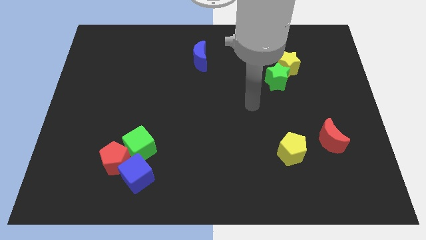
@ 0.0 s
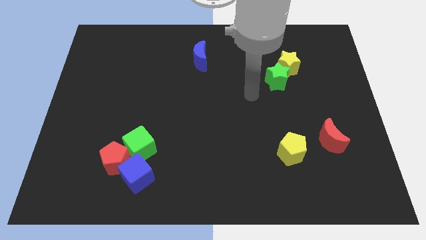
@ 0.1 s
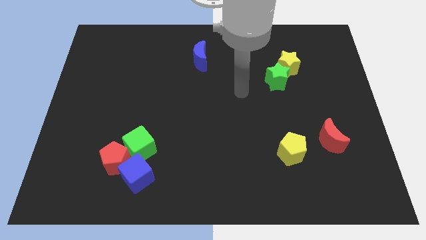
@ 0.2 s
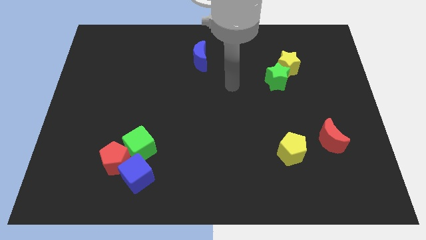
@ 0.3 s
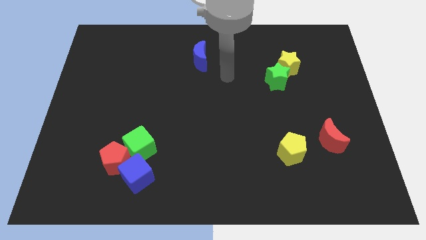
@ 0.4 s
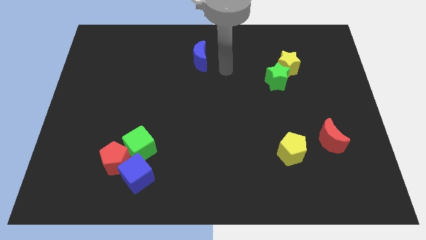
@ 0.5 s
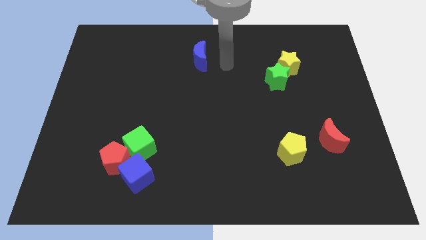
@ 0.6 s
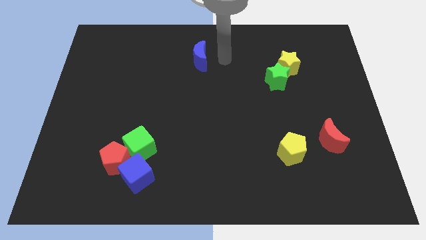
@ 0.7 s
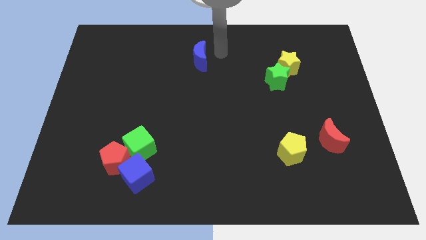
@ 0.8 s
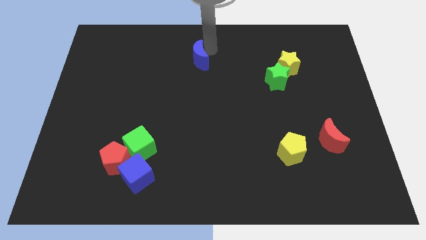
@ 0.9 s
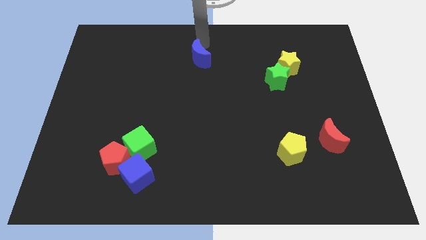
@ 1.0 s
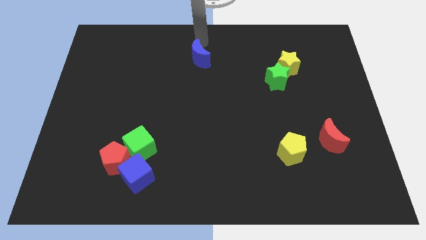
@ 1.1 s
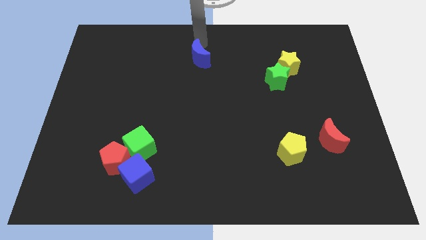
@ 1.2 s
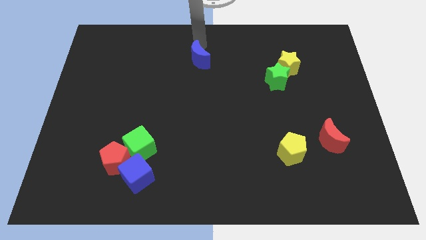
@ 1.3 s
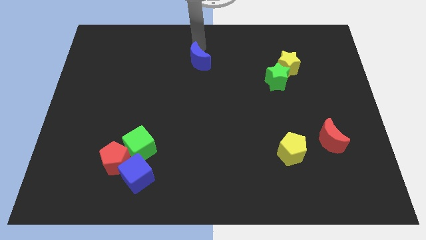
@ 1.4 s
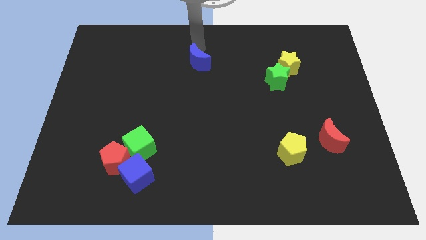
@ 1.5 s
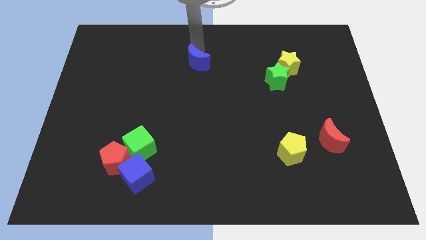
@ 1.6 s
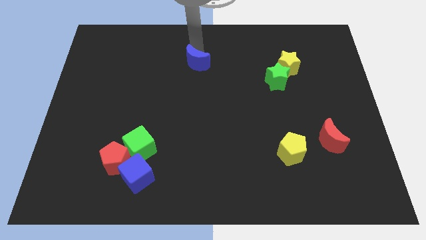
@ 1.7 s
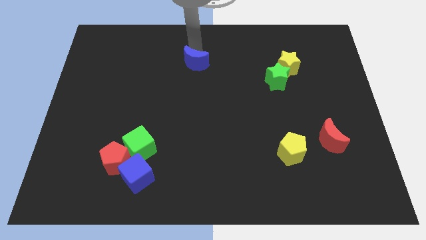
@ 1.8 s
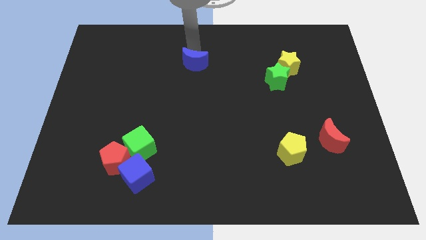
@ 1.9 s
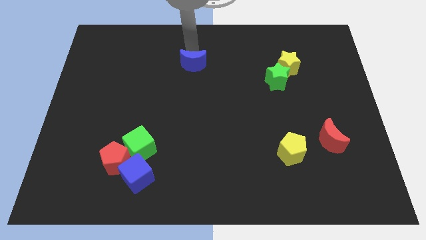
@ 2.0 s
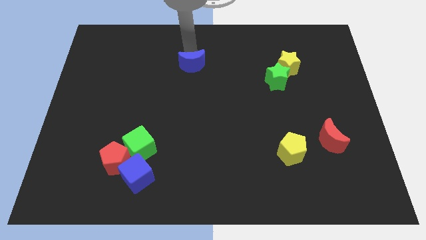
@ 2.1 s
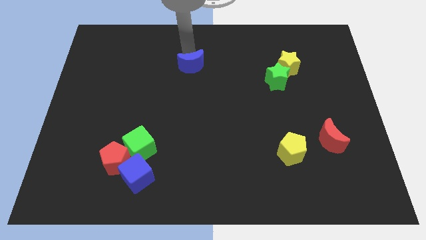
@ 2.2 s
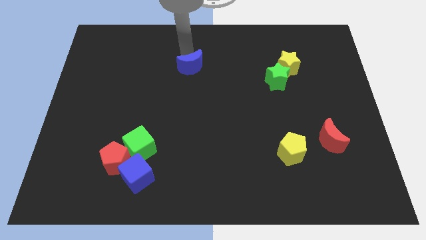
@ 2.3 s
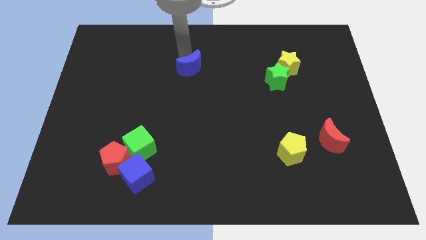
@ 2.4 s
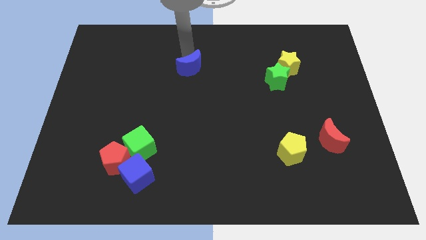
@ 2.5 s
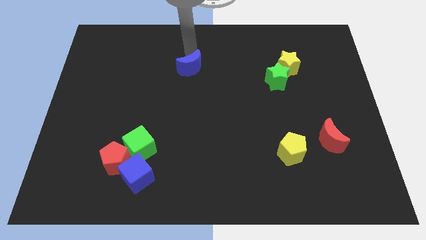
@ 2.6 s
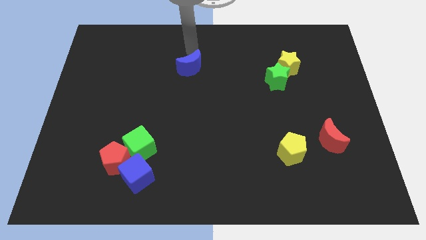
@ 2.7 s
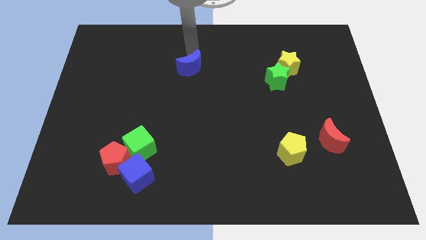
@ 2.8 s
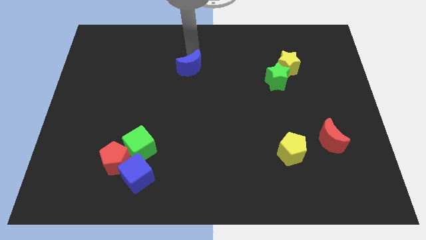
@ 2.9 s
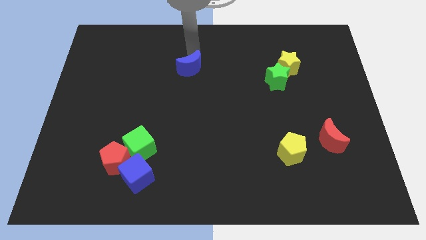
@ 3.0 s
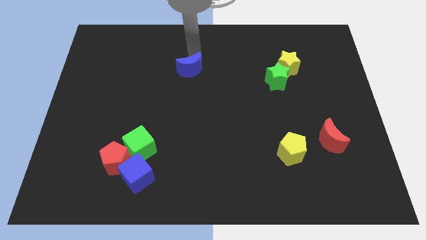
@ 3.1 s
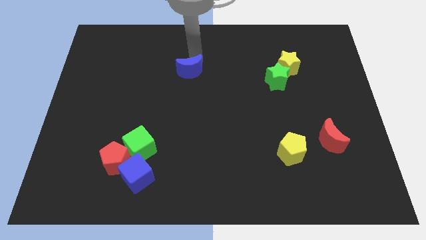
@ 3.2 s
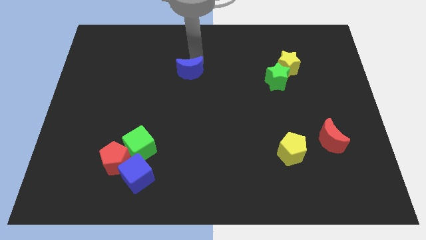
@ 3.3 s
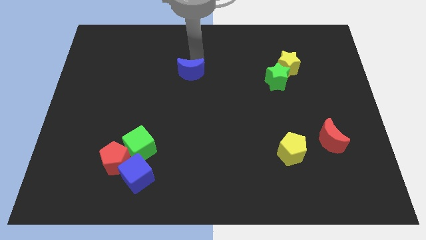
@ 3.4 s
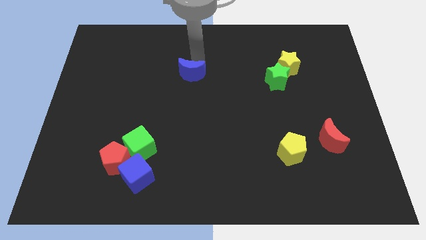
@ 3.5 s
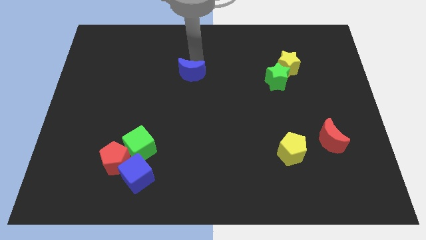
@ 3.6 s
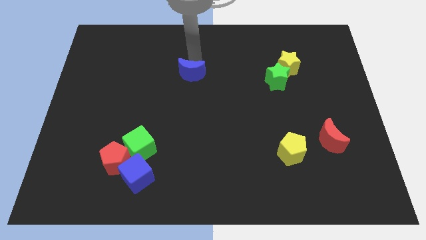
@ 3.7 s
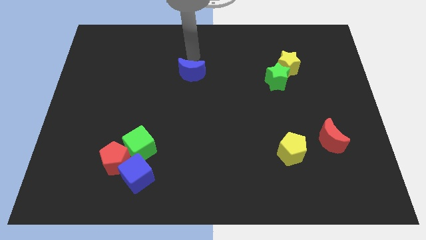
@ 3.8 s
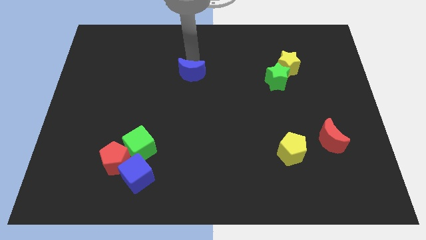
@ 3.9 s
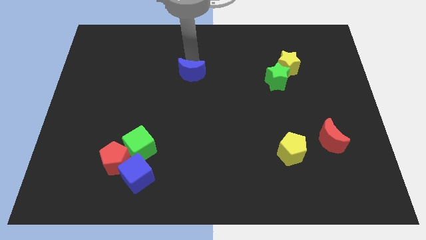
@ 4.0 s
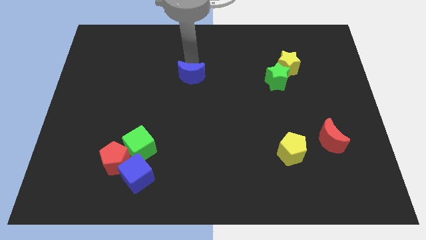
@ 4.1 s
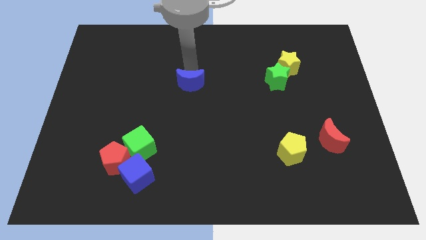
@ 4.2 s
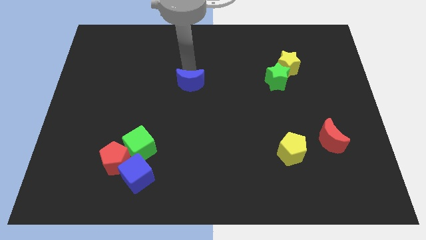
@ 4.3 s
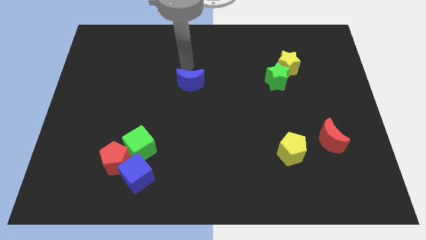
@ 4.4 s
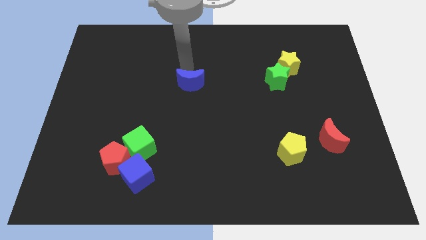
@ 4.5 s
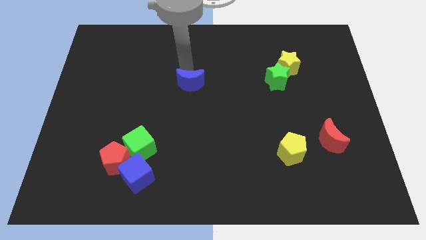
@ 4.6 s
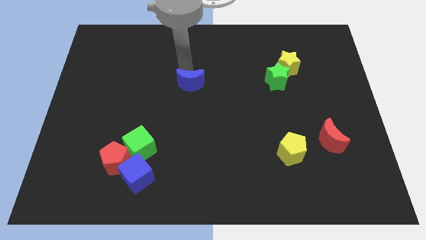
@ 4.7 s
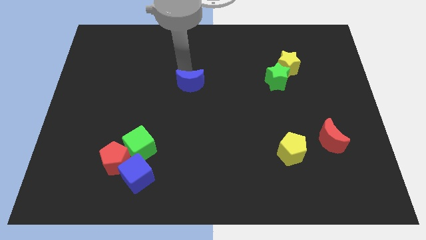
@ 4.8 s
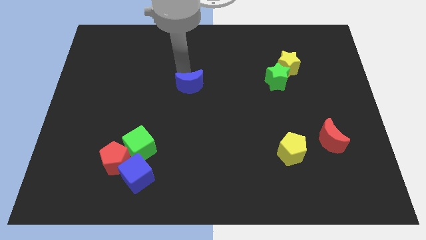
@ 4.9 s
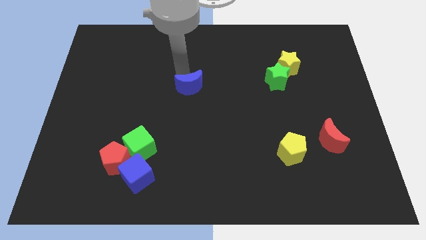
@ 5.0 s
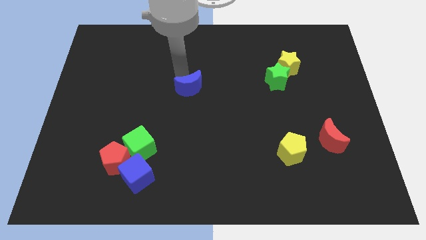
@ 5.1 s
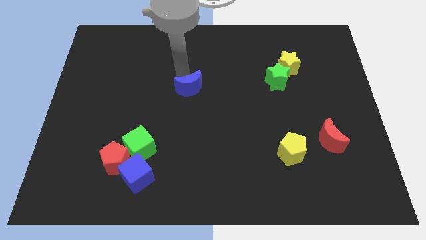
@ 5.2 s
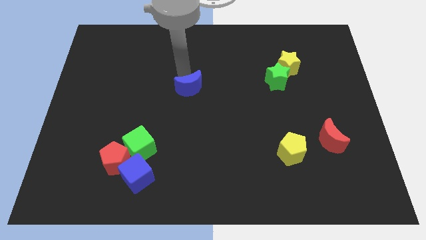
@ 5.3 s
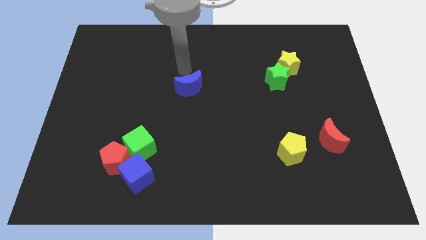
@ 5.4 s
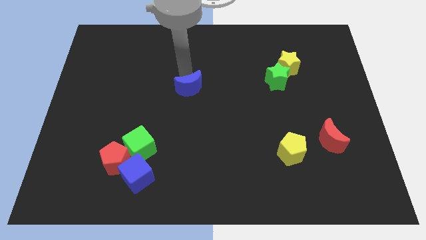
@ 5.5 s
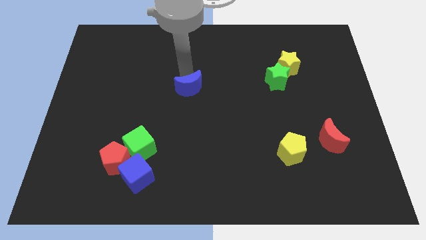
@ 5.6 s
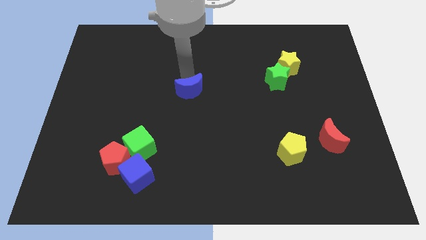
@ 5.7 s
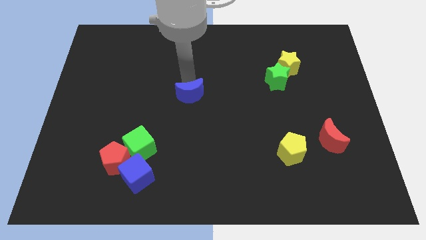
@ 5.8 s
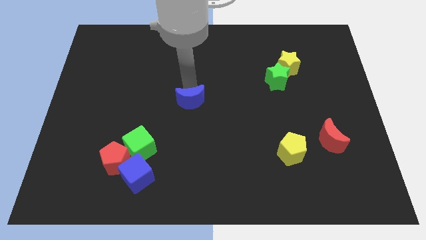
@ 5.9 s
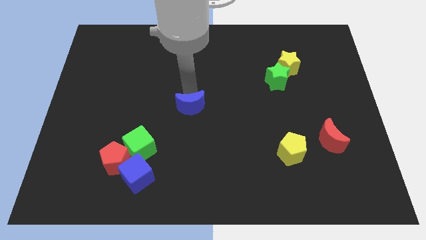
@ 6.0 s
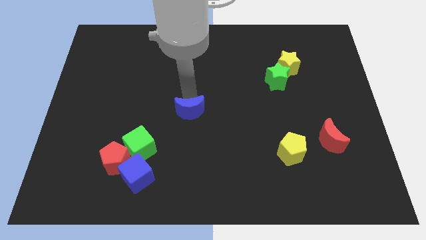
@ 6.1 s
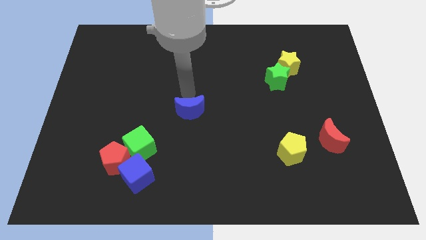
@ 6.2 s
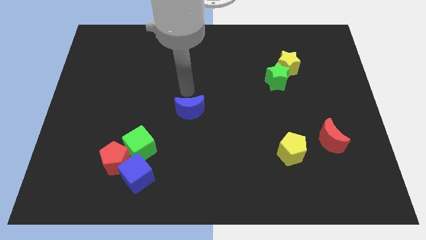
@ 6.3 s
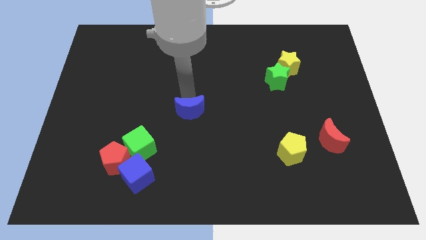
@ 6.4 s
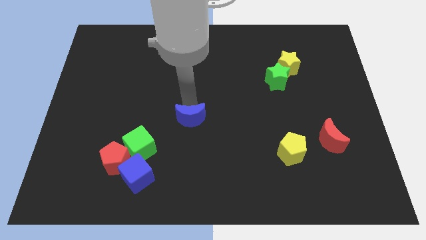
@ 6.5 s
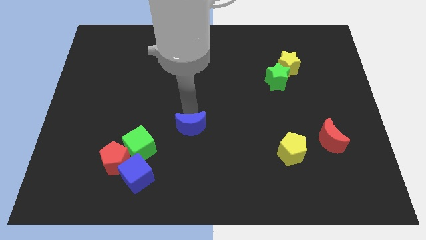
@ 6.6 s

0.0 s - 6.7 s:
push the blue moon down

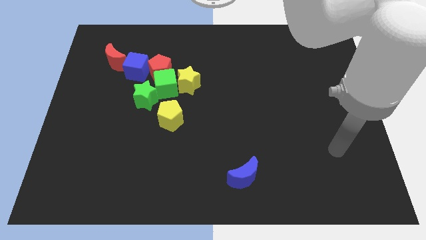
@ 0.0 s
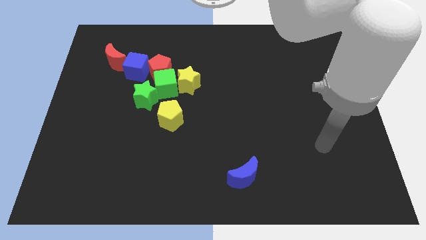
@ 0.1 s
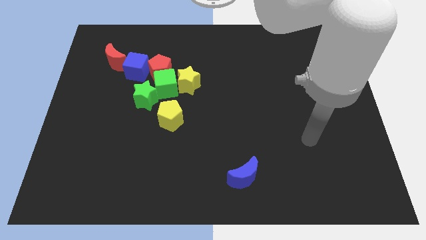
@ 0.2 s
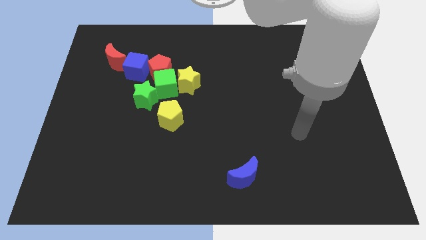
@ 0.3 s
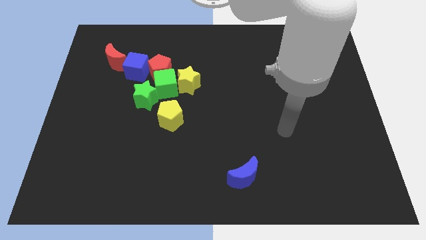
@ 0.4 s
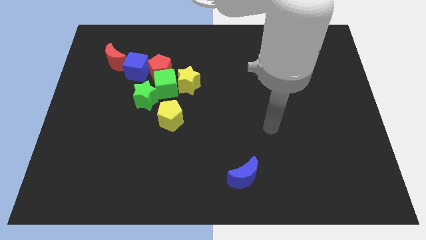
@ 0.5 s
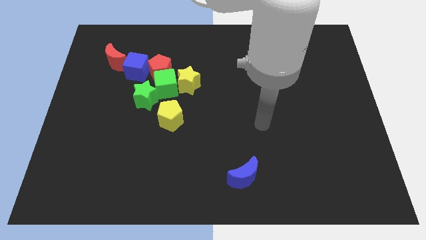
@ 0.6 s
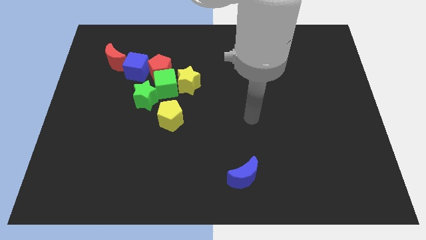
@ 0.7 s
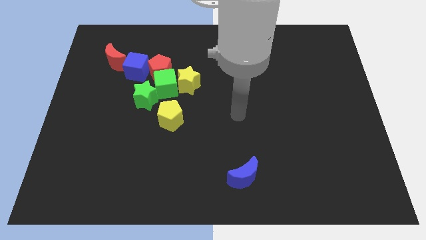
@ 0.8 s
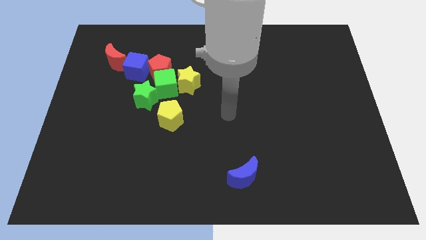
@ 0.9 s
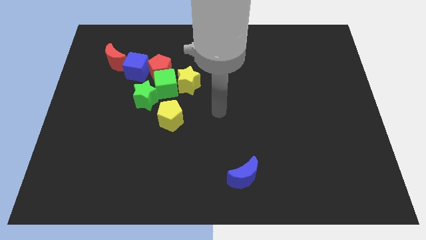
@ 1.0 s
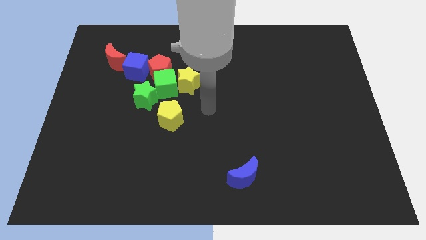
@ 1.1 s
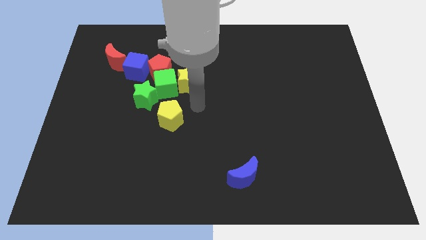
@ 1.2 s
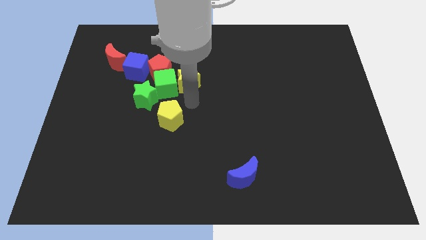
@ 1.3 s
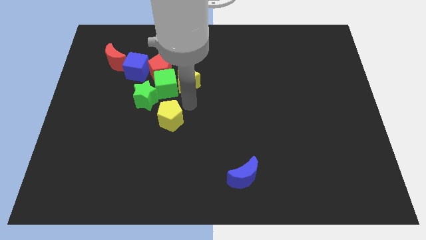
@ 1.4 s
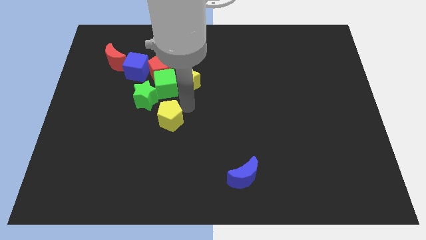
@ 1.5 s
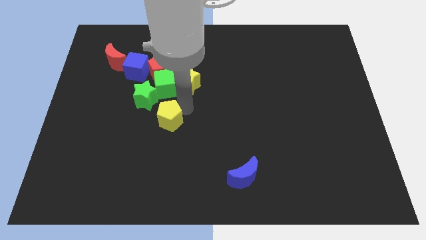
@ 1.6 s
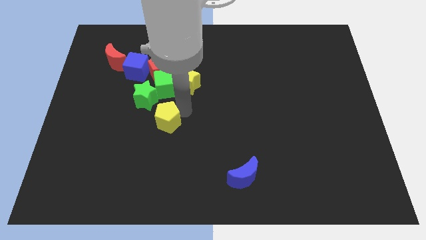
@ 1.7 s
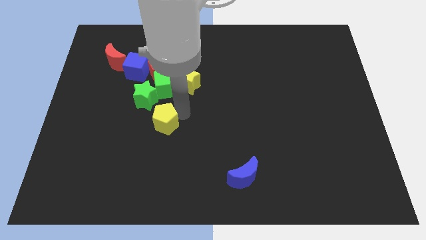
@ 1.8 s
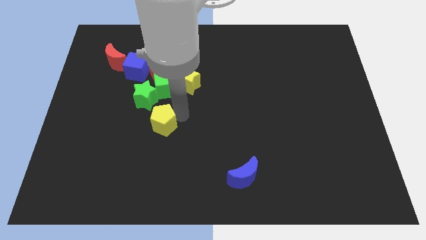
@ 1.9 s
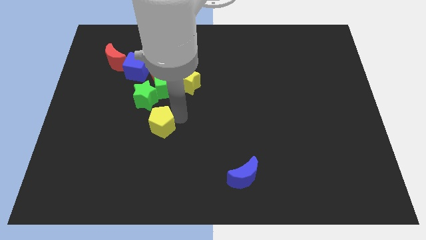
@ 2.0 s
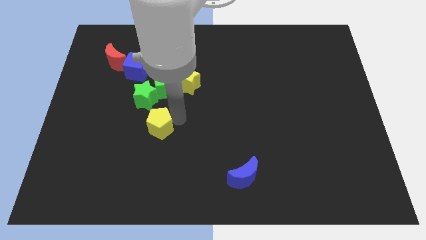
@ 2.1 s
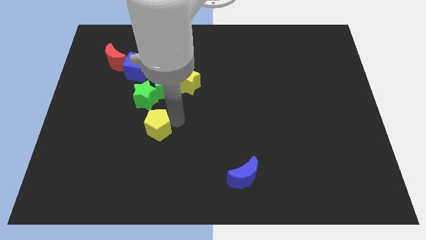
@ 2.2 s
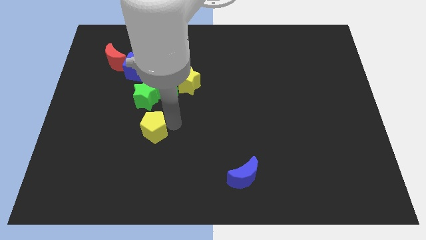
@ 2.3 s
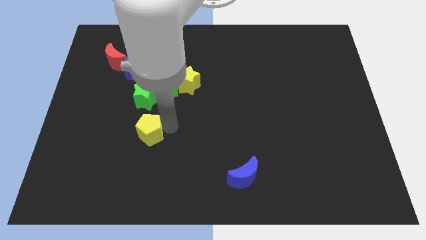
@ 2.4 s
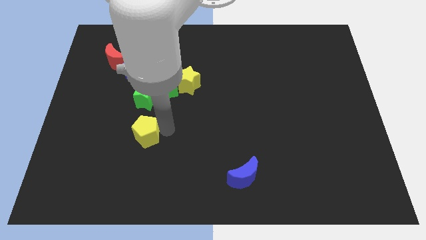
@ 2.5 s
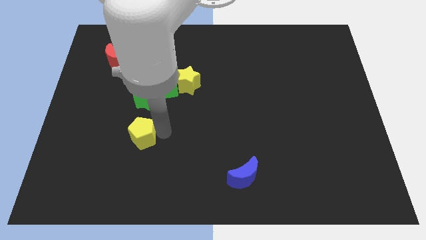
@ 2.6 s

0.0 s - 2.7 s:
slightly move the yellow pentagon diagonally down and to the left
